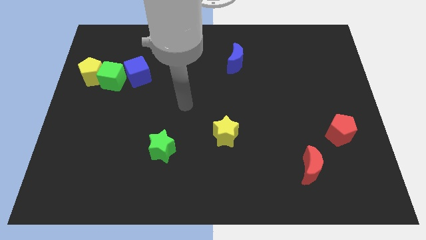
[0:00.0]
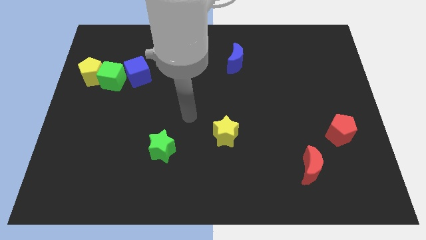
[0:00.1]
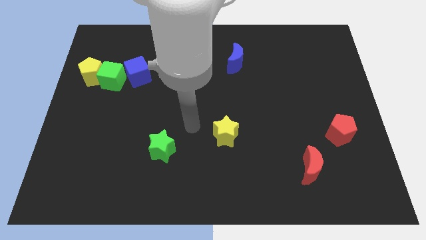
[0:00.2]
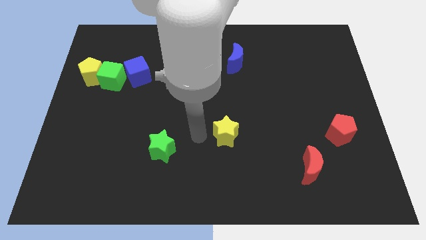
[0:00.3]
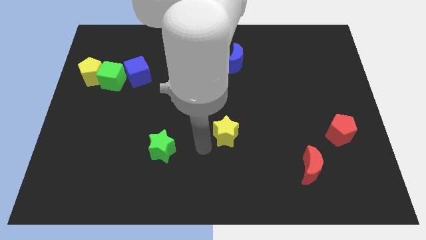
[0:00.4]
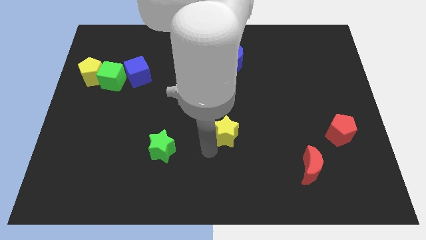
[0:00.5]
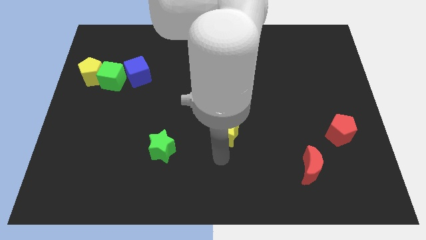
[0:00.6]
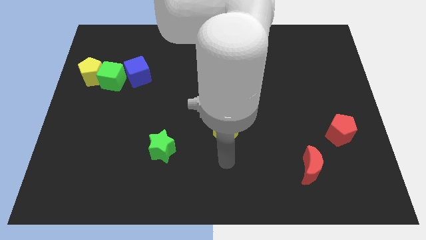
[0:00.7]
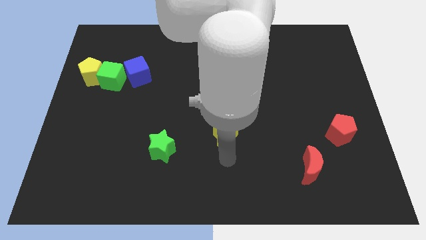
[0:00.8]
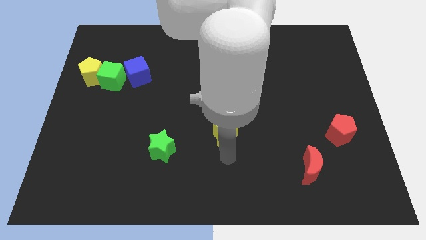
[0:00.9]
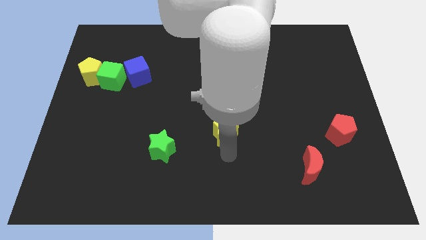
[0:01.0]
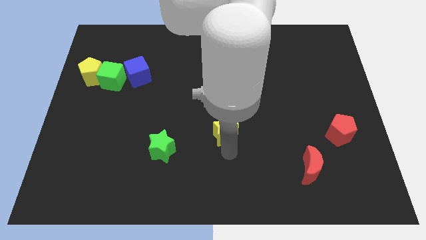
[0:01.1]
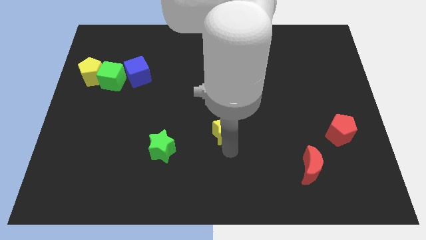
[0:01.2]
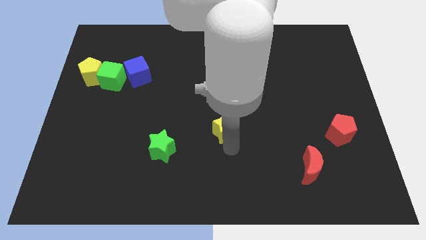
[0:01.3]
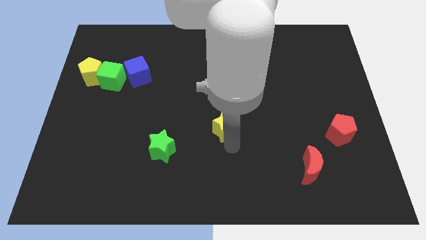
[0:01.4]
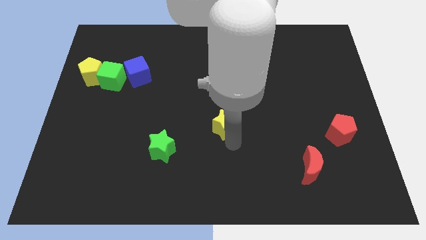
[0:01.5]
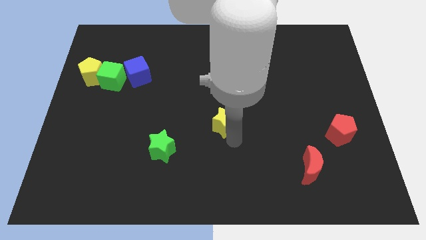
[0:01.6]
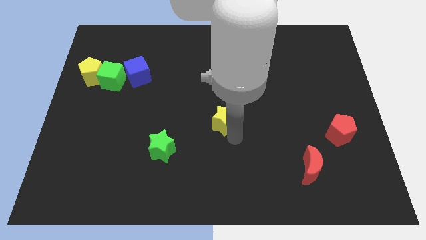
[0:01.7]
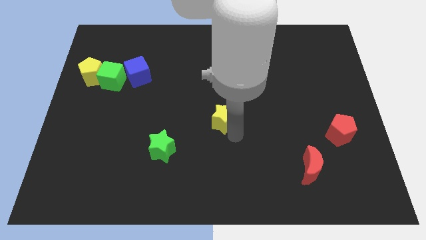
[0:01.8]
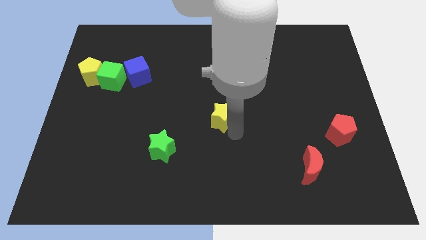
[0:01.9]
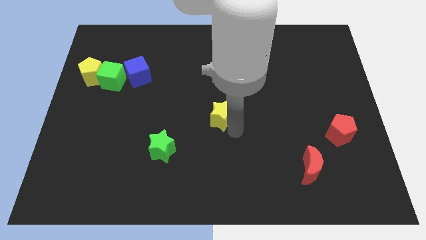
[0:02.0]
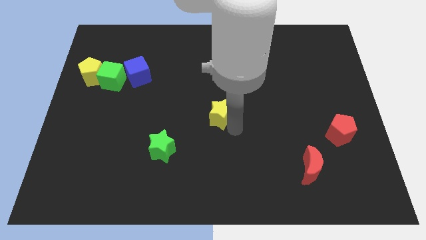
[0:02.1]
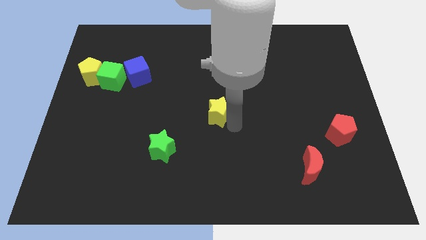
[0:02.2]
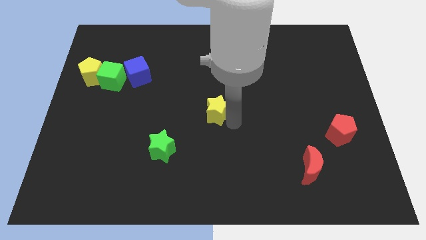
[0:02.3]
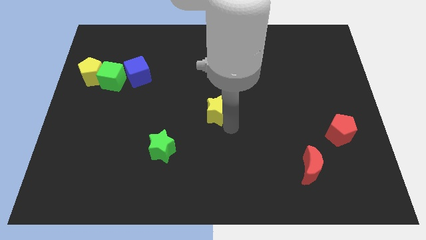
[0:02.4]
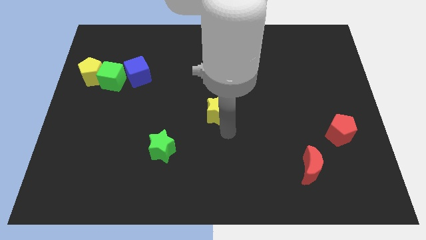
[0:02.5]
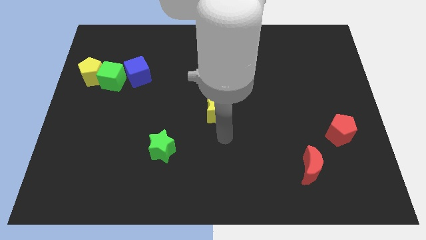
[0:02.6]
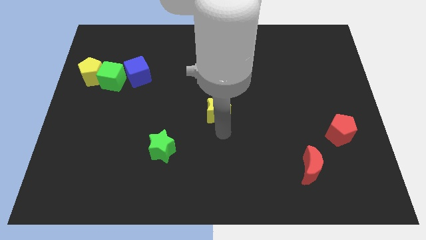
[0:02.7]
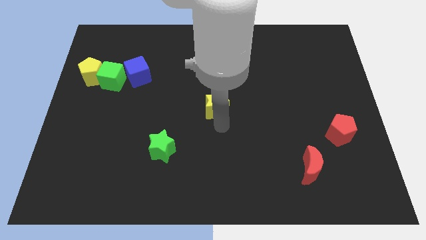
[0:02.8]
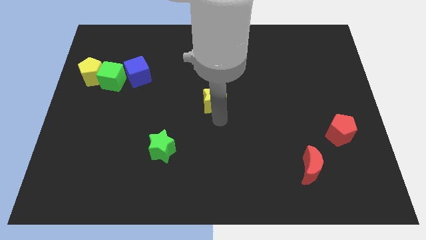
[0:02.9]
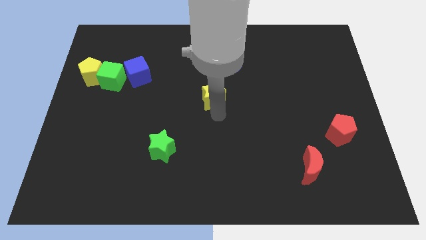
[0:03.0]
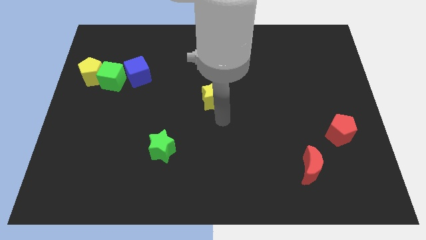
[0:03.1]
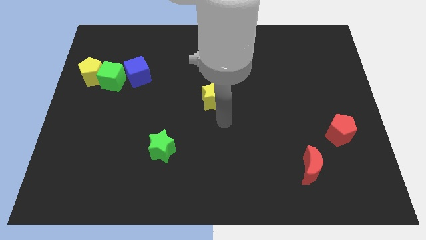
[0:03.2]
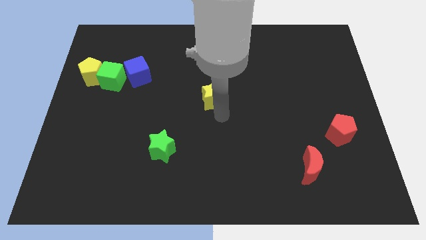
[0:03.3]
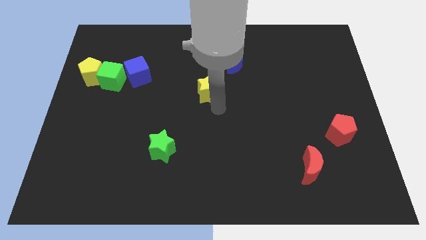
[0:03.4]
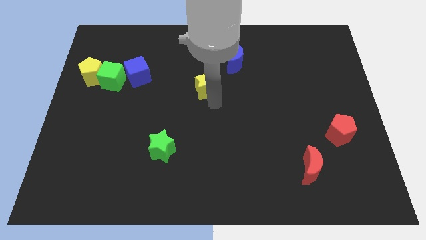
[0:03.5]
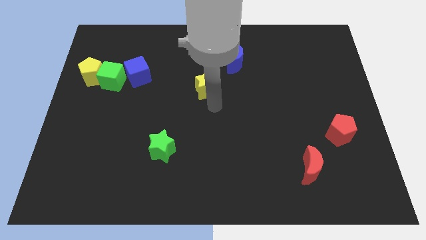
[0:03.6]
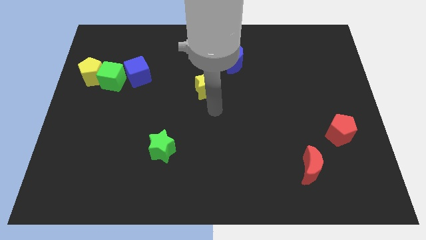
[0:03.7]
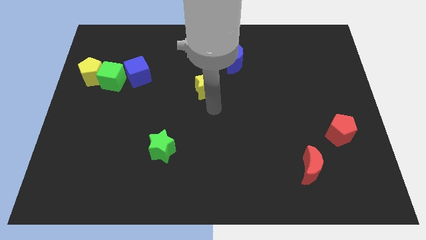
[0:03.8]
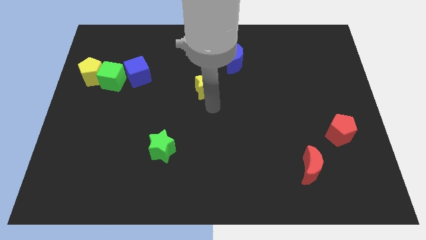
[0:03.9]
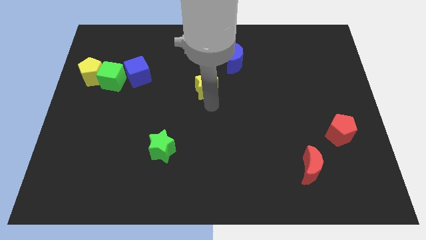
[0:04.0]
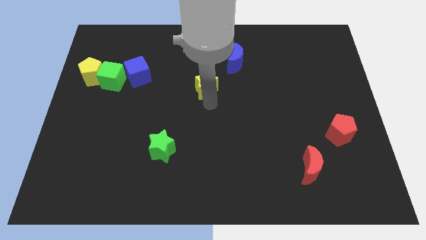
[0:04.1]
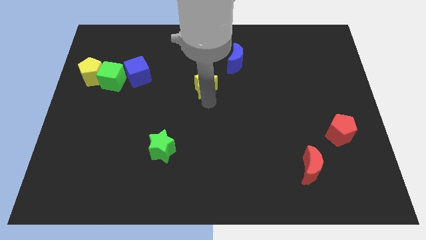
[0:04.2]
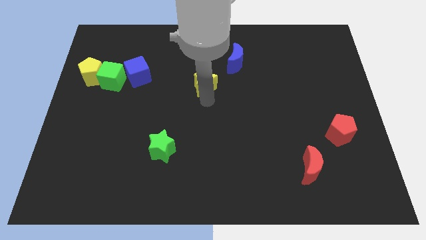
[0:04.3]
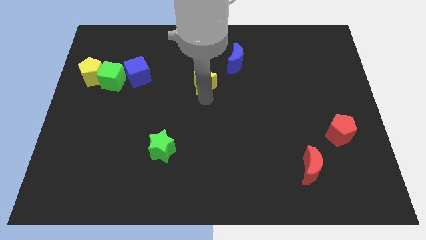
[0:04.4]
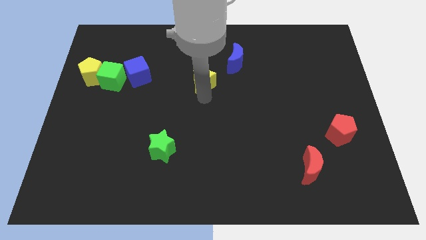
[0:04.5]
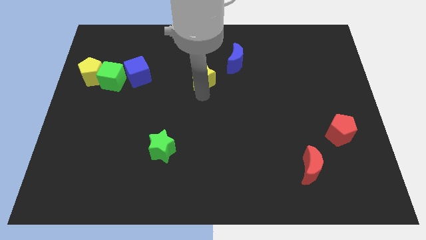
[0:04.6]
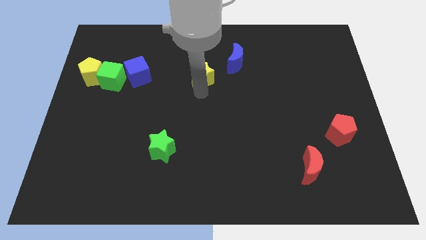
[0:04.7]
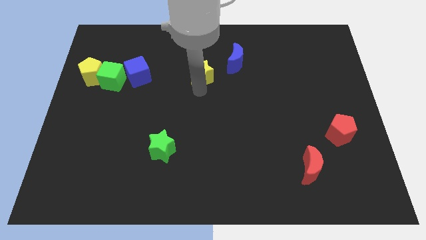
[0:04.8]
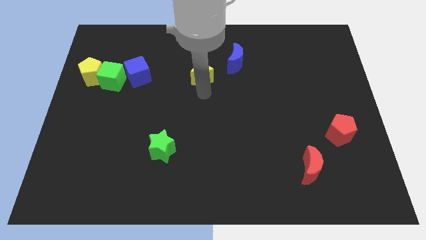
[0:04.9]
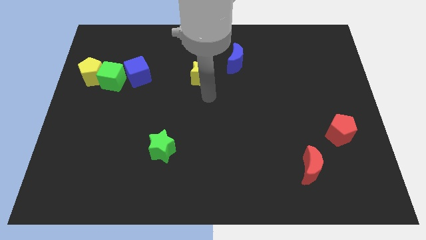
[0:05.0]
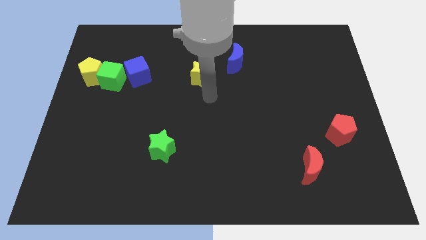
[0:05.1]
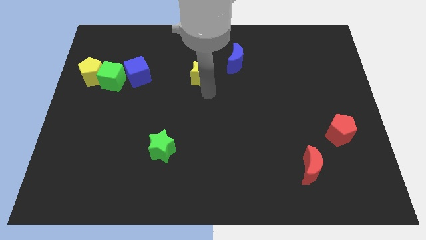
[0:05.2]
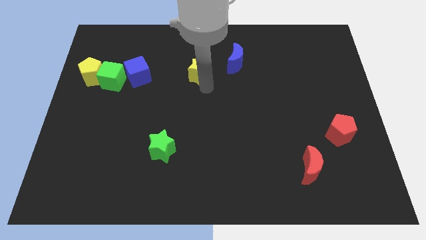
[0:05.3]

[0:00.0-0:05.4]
slide the yellow star to the left of the blue moon

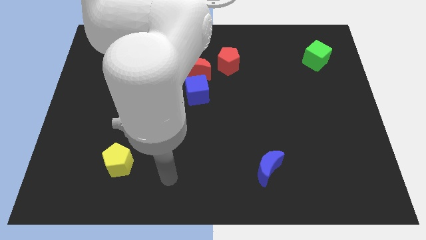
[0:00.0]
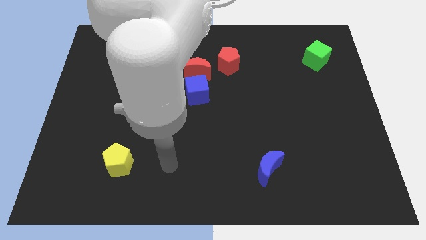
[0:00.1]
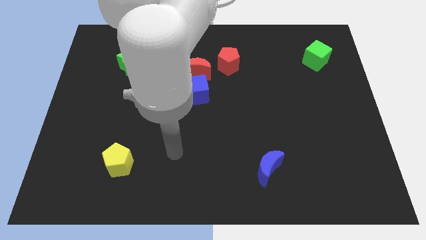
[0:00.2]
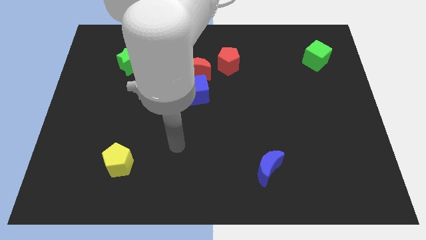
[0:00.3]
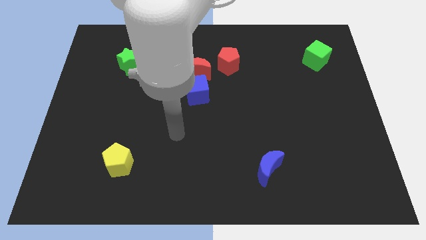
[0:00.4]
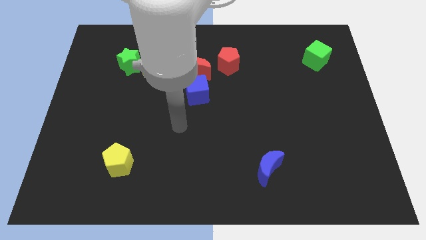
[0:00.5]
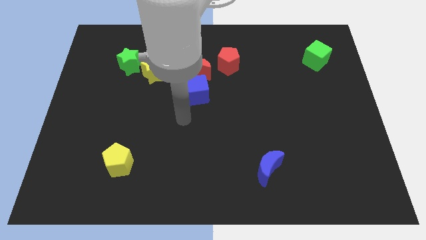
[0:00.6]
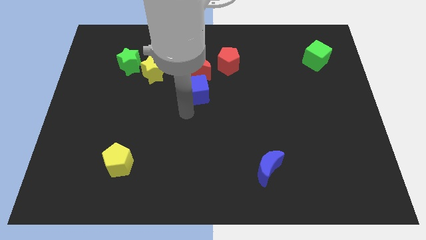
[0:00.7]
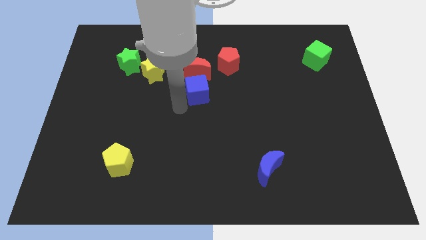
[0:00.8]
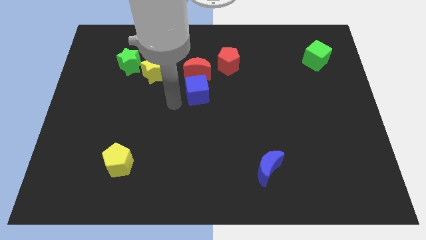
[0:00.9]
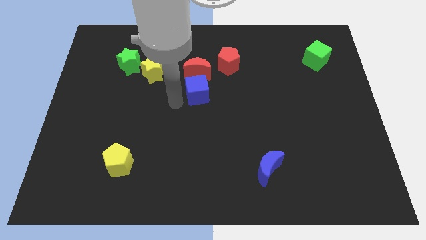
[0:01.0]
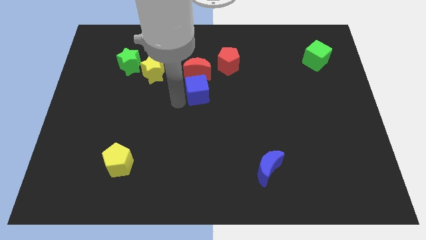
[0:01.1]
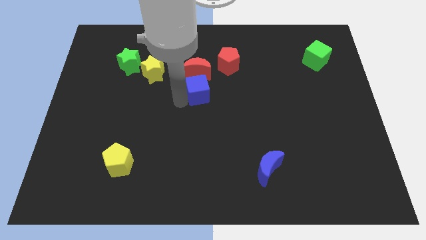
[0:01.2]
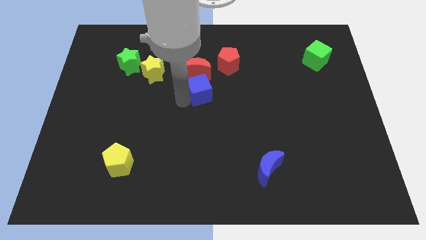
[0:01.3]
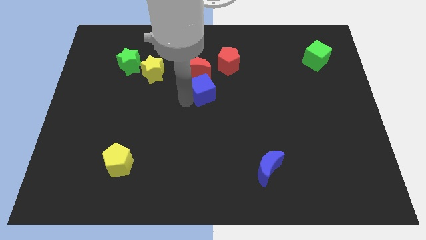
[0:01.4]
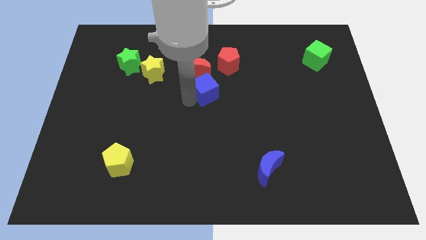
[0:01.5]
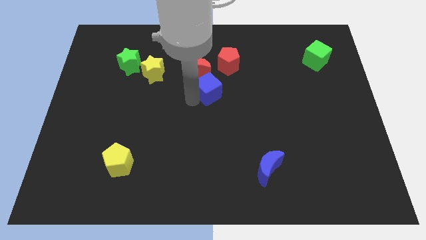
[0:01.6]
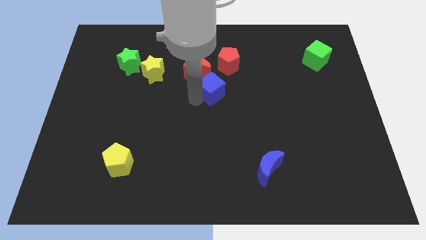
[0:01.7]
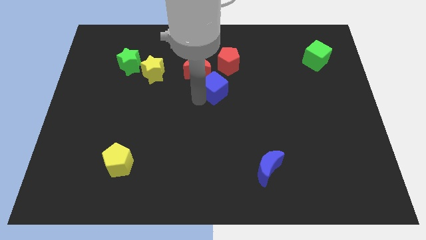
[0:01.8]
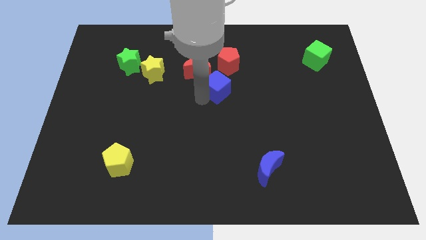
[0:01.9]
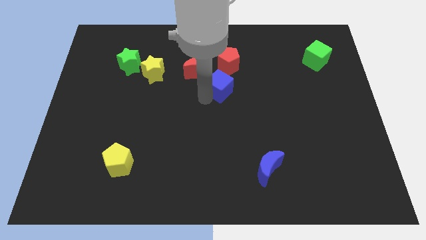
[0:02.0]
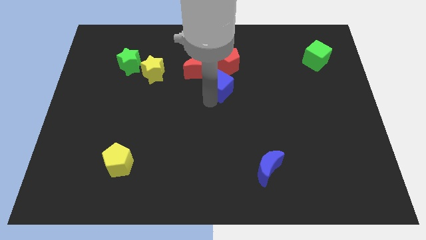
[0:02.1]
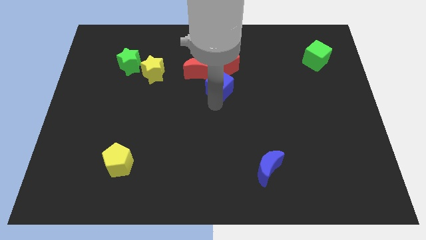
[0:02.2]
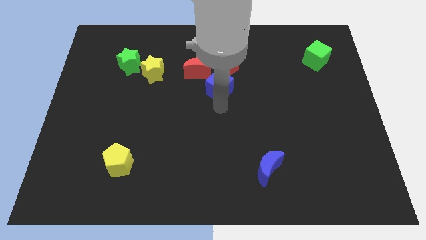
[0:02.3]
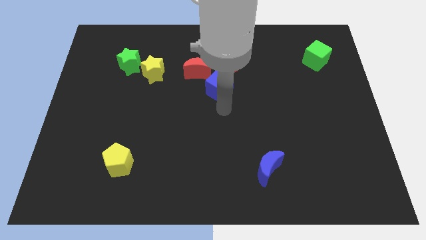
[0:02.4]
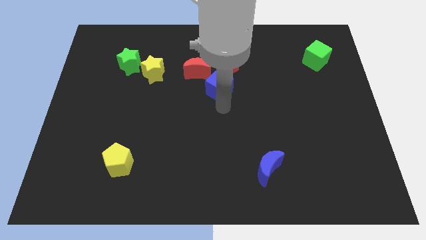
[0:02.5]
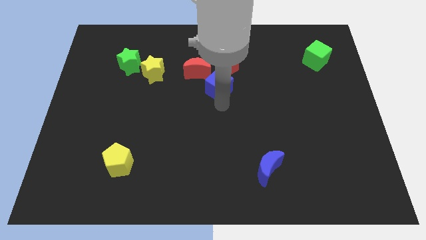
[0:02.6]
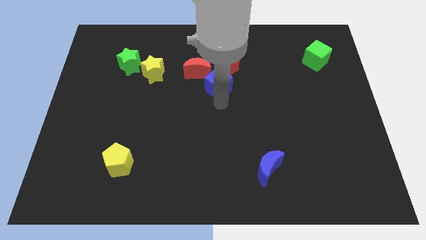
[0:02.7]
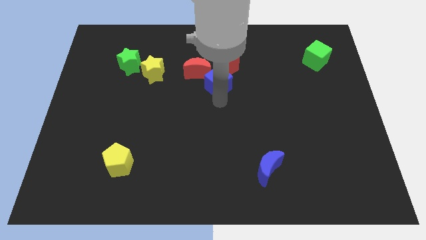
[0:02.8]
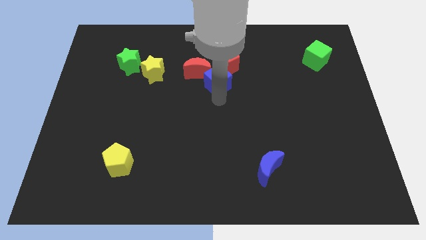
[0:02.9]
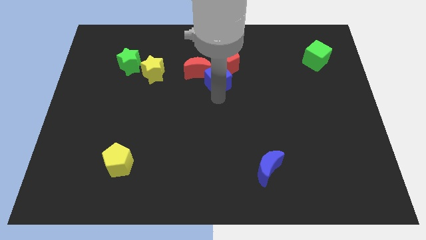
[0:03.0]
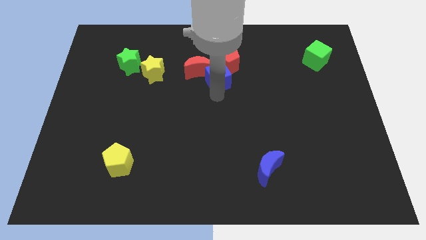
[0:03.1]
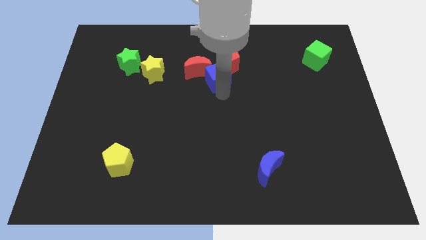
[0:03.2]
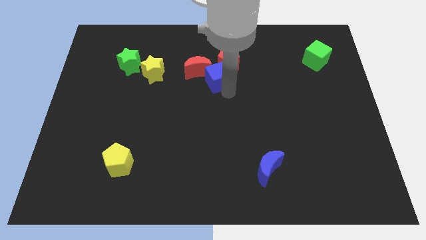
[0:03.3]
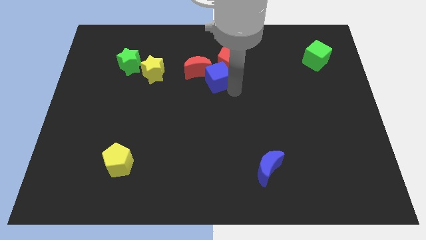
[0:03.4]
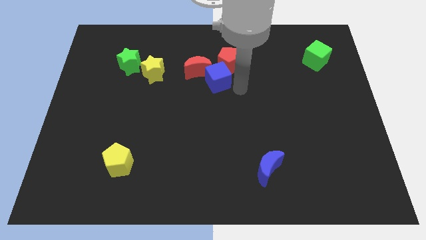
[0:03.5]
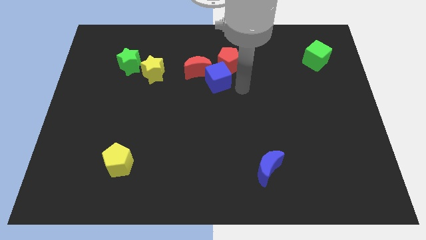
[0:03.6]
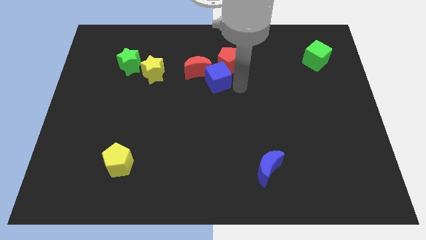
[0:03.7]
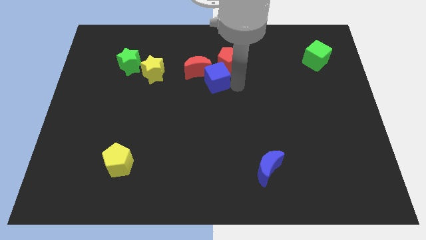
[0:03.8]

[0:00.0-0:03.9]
slide the blue cube just right of the yellow star
